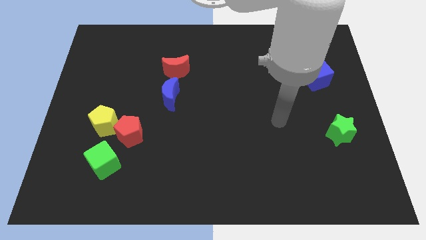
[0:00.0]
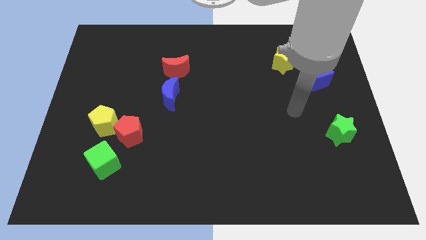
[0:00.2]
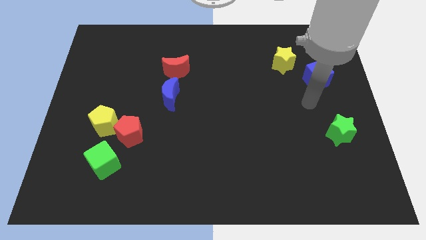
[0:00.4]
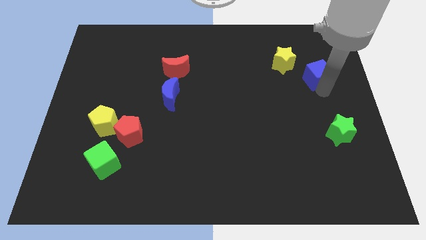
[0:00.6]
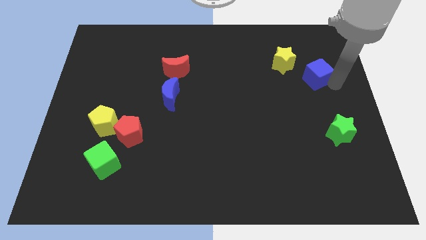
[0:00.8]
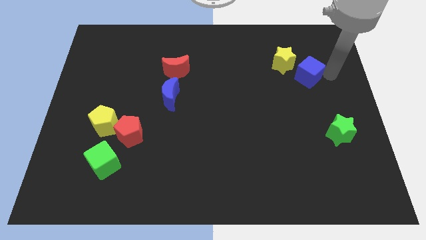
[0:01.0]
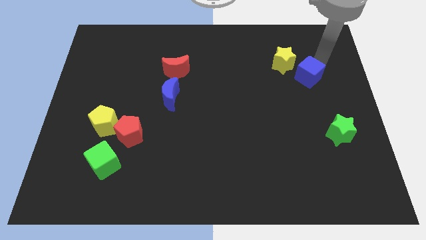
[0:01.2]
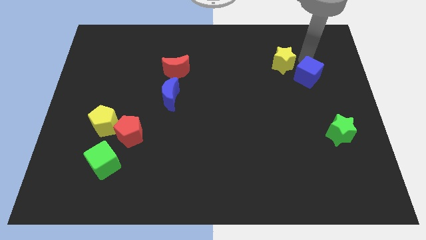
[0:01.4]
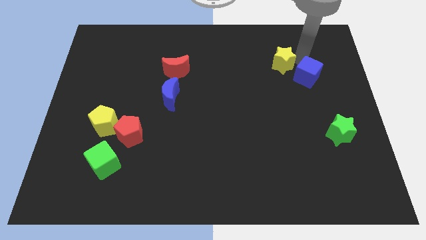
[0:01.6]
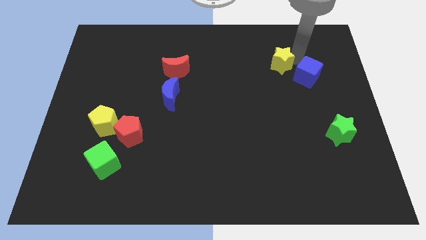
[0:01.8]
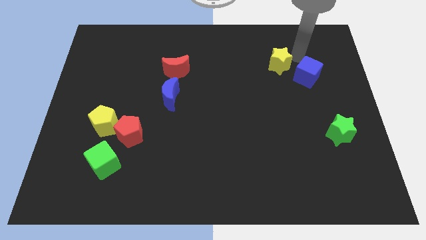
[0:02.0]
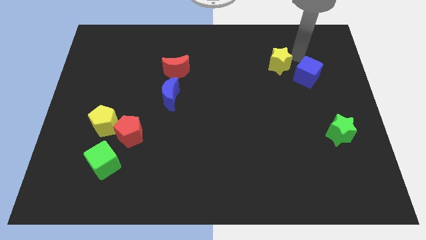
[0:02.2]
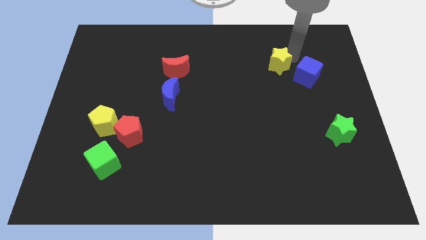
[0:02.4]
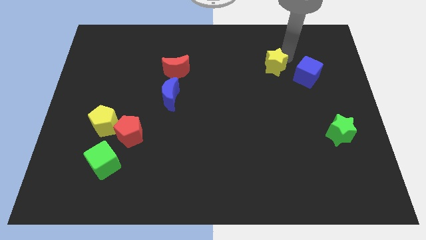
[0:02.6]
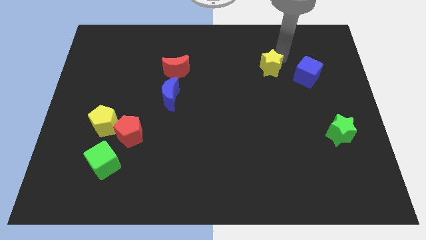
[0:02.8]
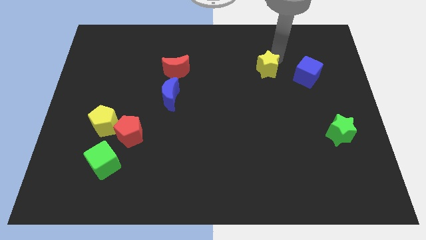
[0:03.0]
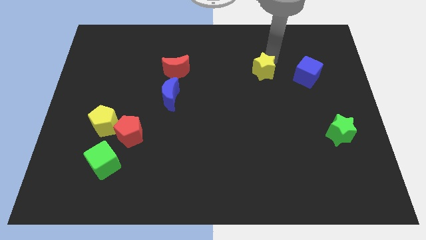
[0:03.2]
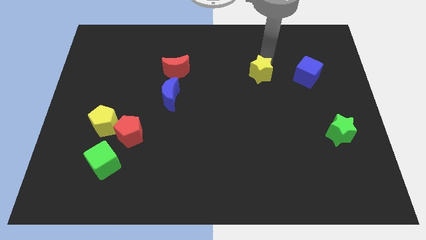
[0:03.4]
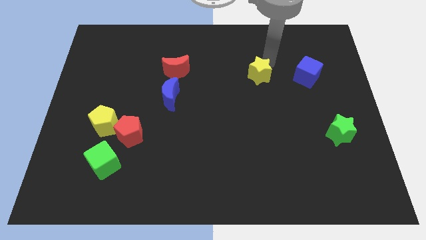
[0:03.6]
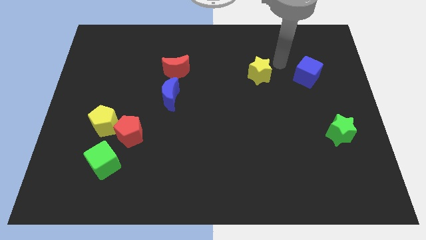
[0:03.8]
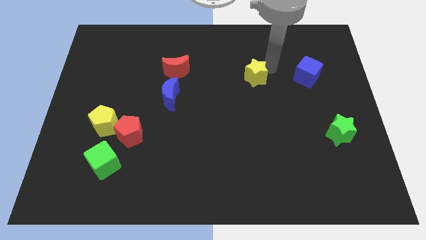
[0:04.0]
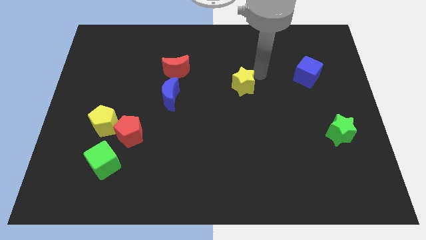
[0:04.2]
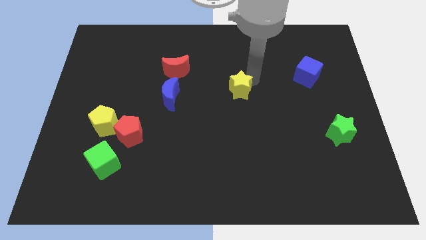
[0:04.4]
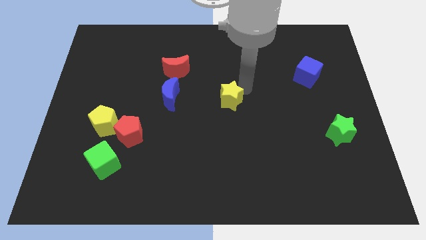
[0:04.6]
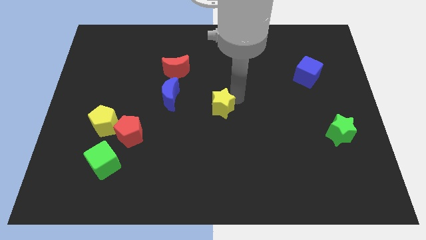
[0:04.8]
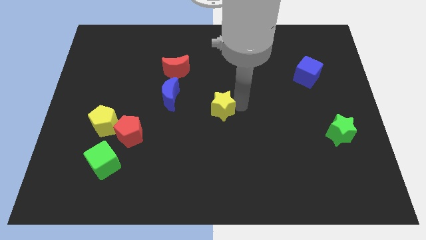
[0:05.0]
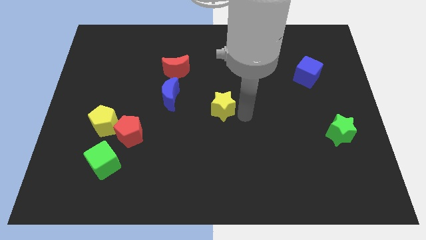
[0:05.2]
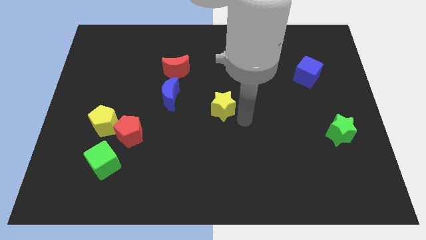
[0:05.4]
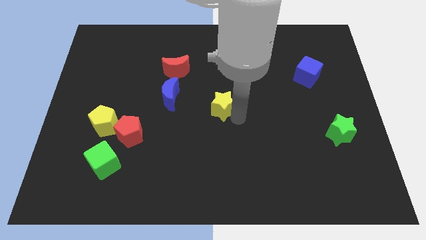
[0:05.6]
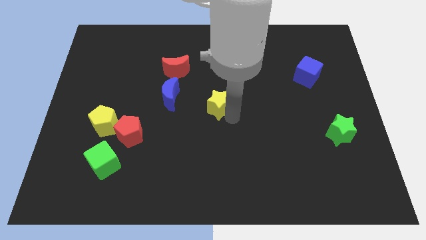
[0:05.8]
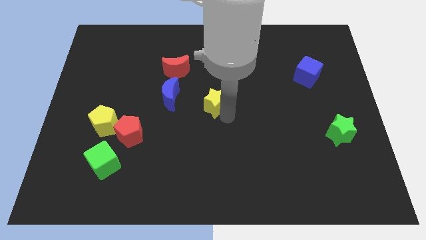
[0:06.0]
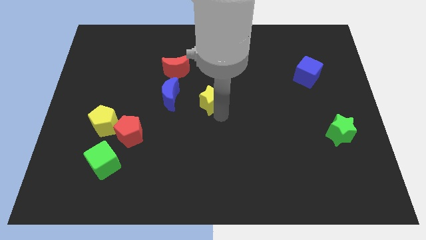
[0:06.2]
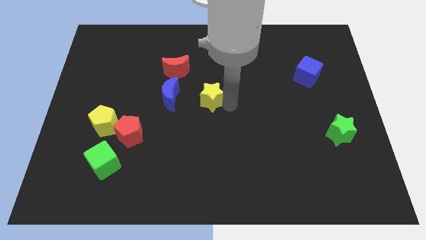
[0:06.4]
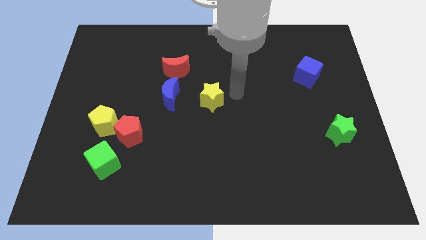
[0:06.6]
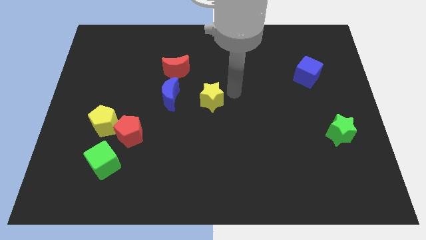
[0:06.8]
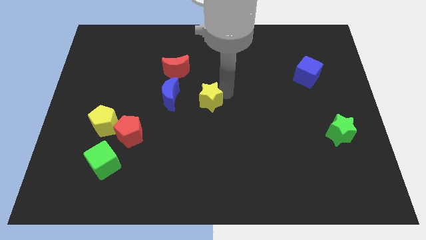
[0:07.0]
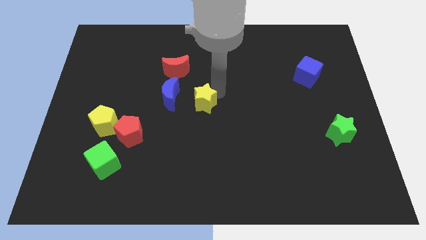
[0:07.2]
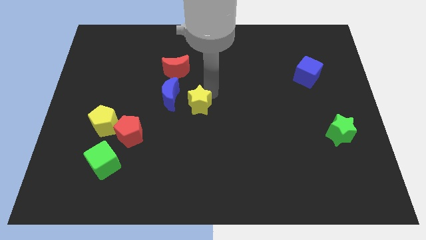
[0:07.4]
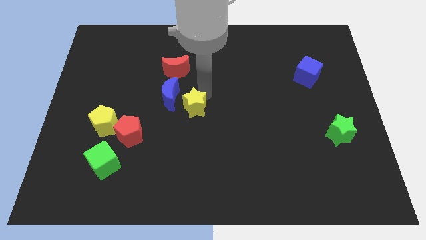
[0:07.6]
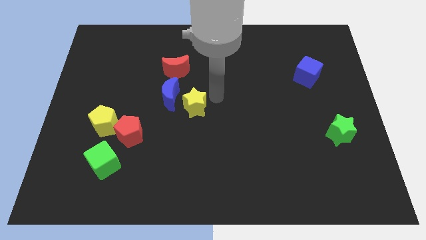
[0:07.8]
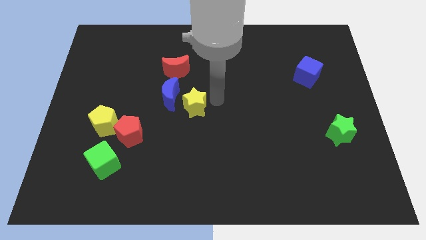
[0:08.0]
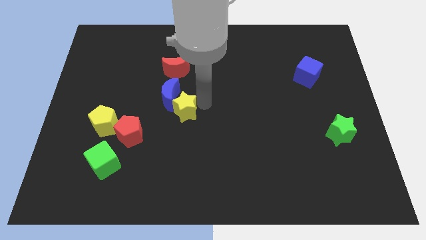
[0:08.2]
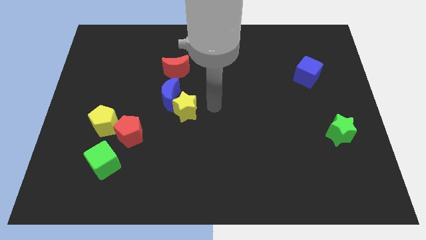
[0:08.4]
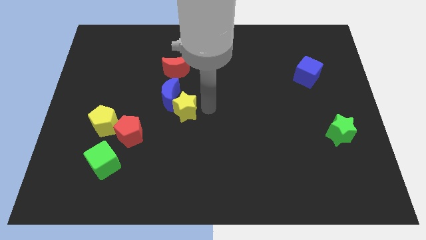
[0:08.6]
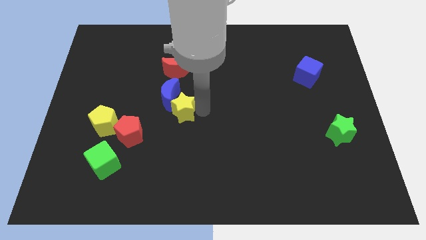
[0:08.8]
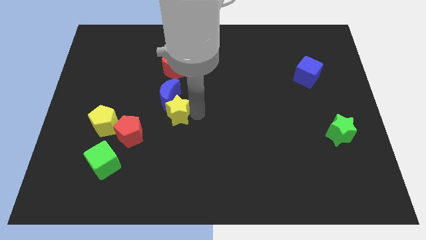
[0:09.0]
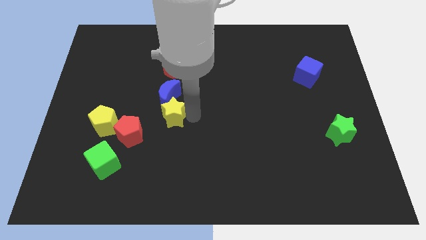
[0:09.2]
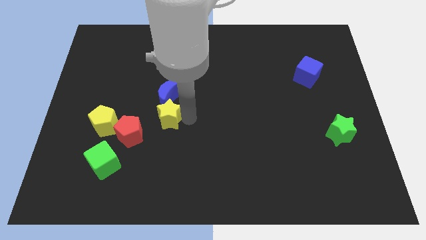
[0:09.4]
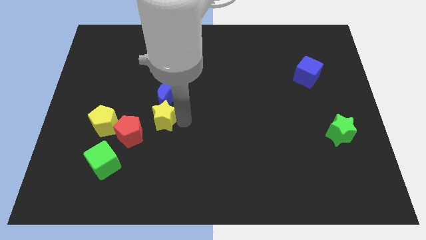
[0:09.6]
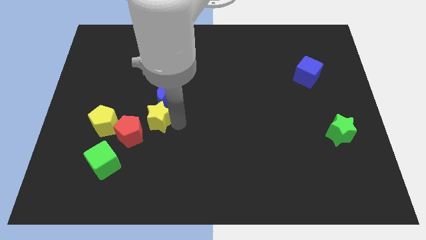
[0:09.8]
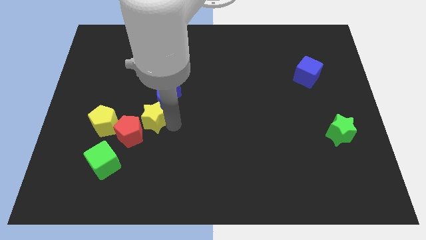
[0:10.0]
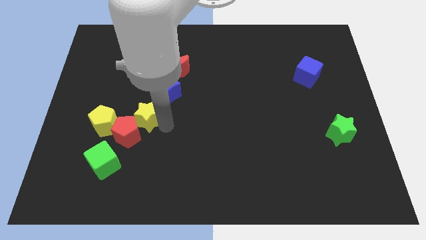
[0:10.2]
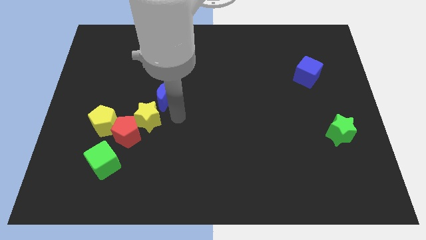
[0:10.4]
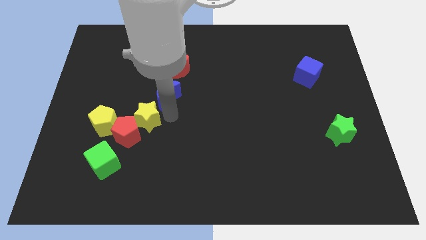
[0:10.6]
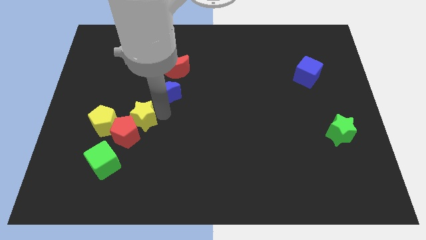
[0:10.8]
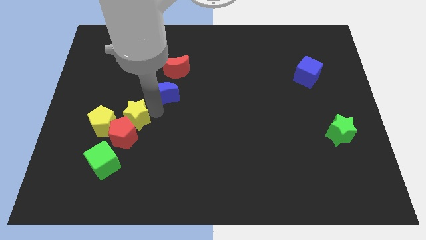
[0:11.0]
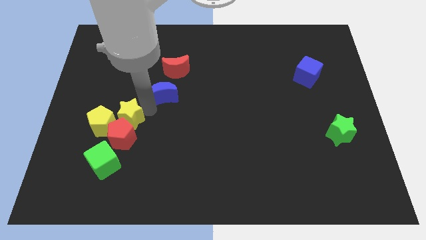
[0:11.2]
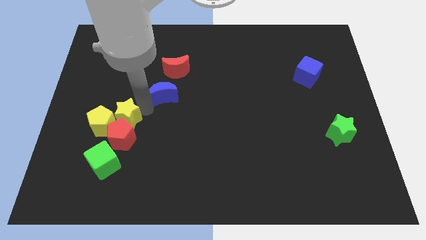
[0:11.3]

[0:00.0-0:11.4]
put the yellow star next to the yellow pentagon

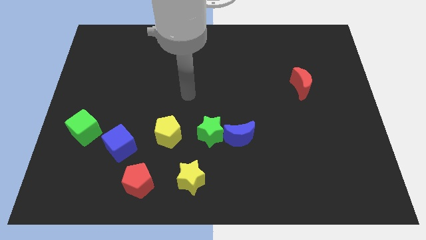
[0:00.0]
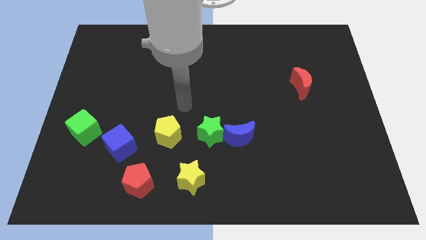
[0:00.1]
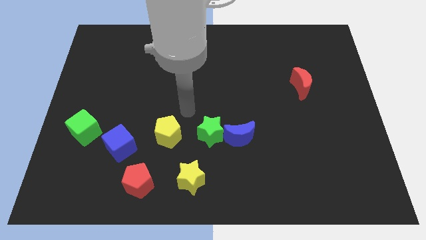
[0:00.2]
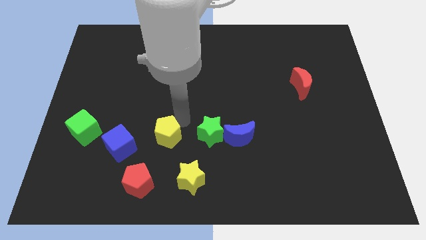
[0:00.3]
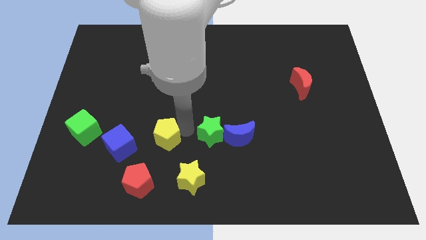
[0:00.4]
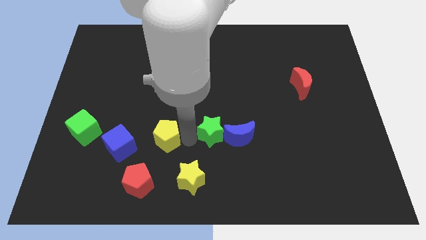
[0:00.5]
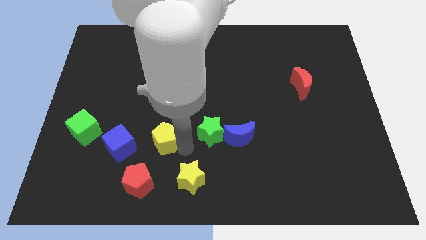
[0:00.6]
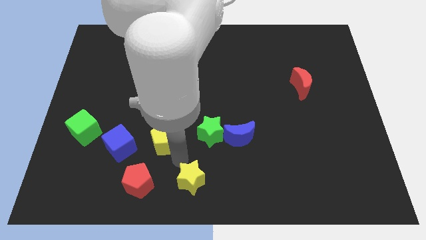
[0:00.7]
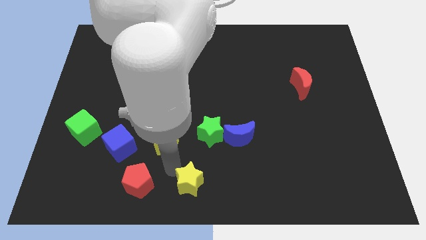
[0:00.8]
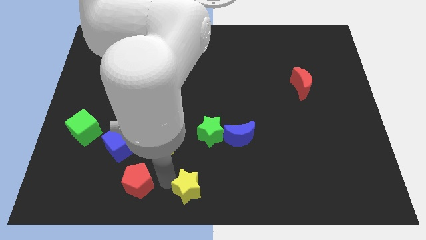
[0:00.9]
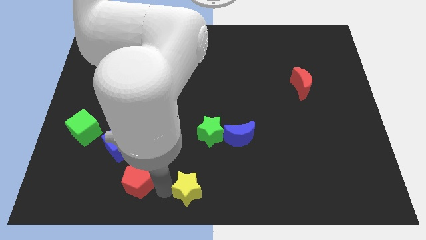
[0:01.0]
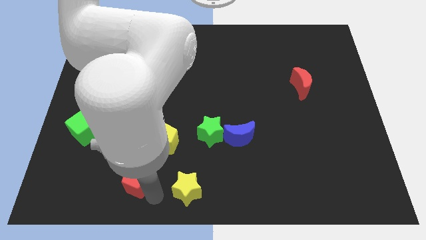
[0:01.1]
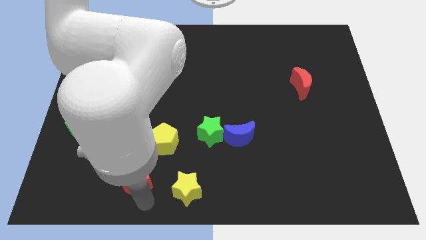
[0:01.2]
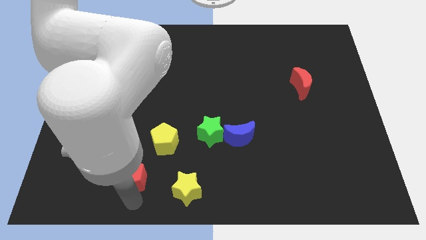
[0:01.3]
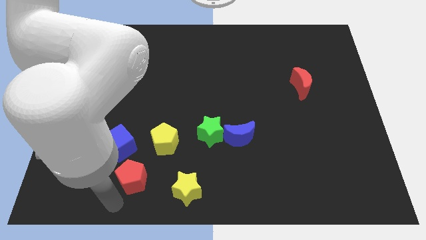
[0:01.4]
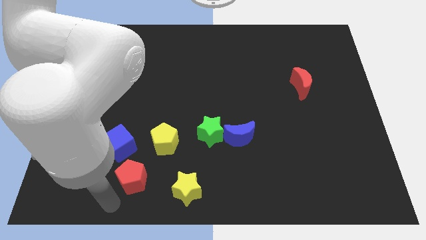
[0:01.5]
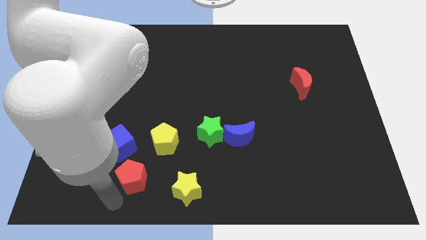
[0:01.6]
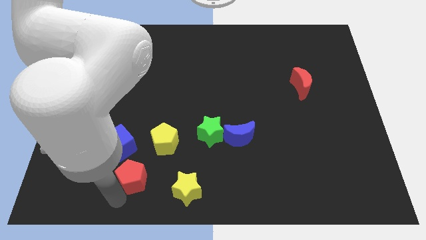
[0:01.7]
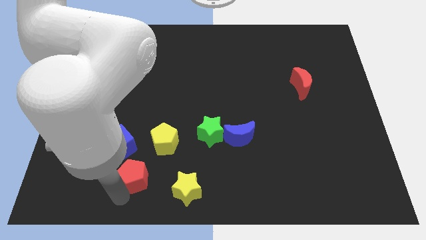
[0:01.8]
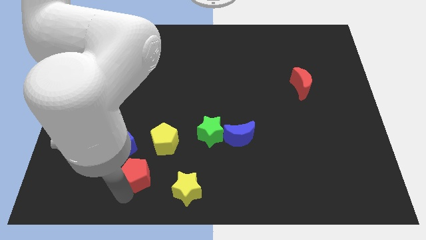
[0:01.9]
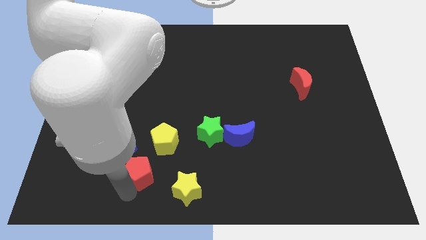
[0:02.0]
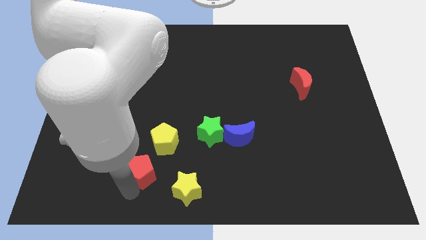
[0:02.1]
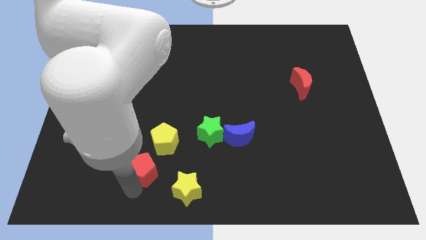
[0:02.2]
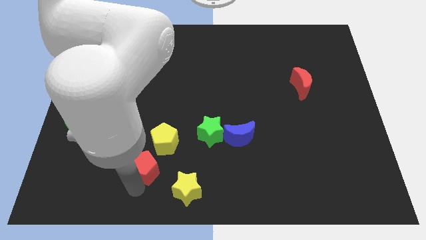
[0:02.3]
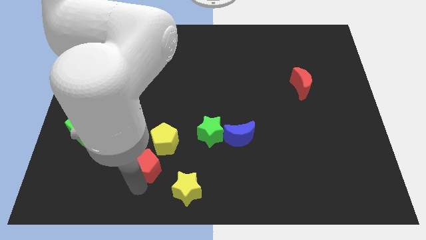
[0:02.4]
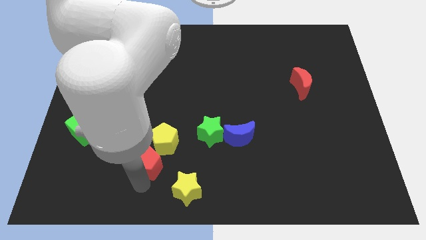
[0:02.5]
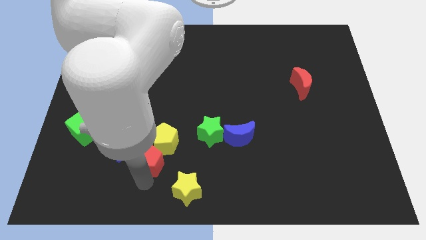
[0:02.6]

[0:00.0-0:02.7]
put the red pentagon towards the yellow pentagon
